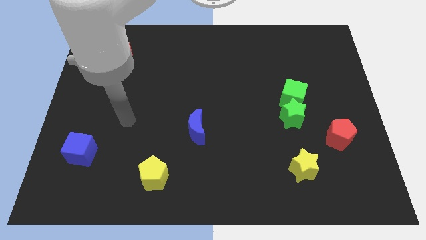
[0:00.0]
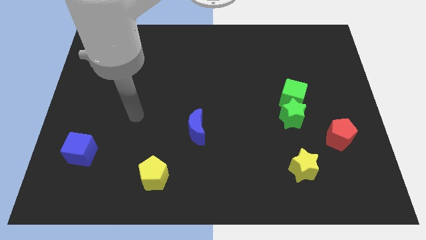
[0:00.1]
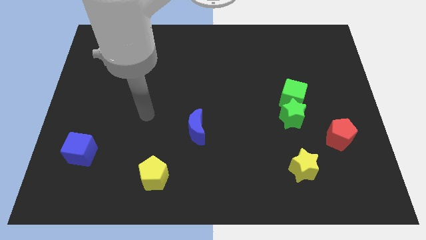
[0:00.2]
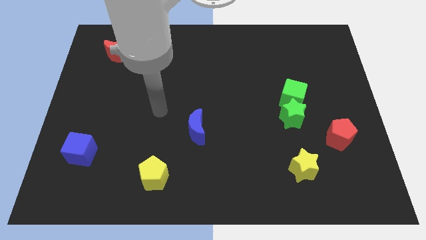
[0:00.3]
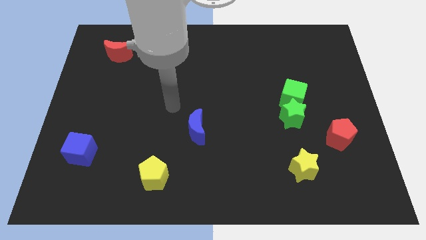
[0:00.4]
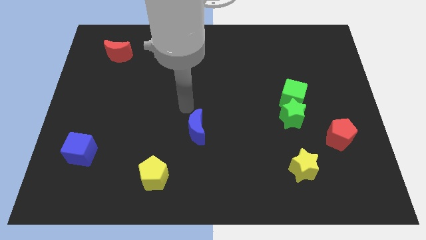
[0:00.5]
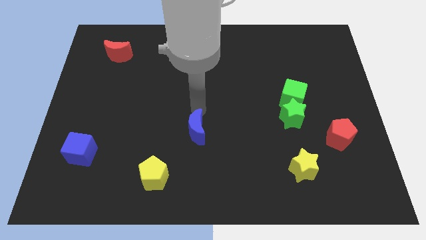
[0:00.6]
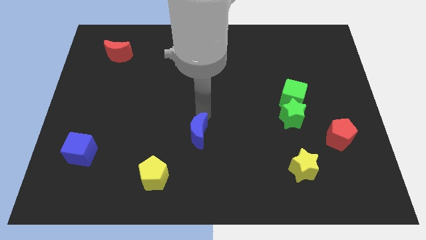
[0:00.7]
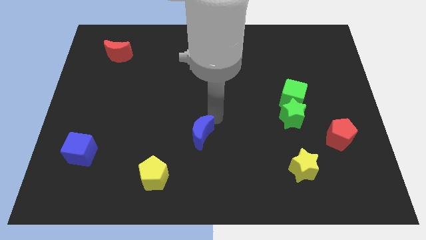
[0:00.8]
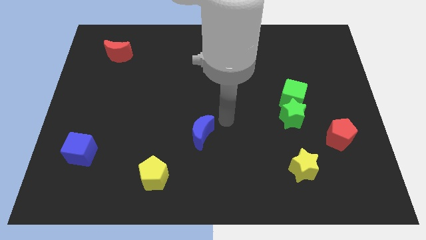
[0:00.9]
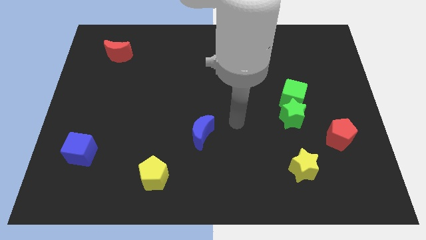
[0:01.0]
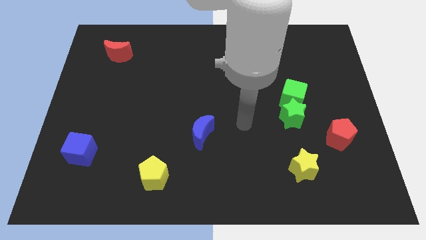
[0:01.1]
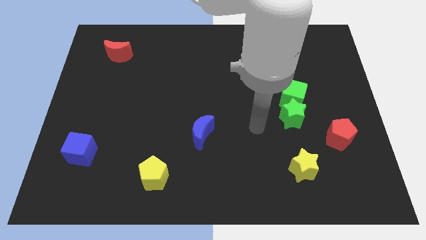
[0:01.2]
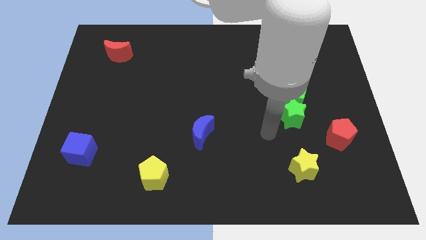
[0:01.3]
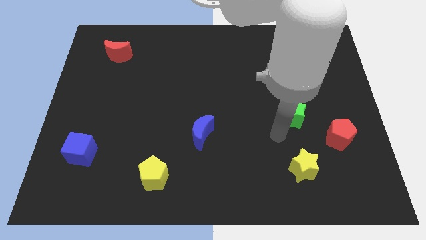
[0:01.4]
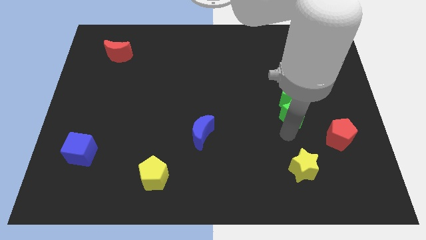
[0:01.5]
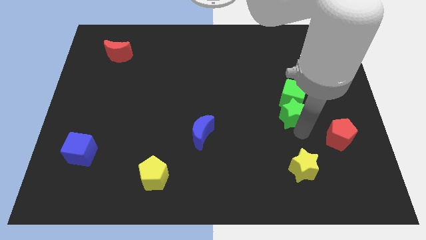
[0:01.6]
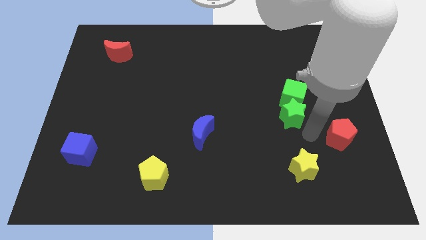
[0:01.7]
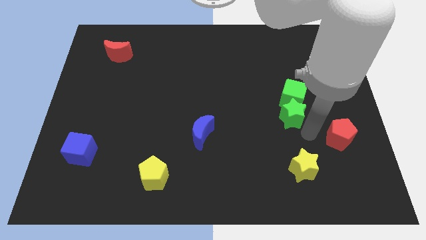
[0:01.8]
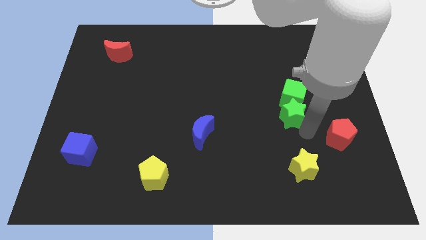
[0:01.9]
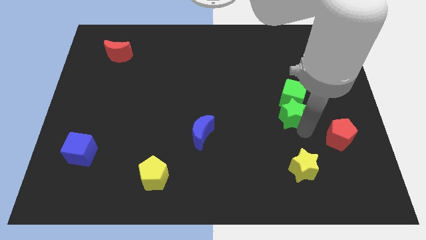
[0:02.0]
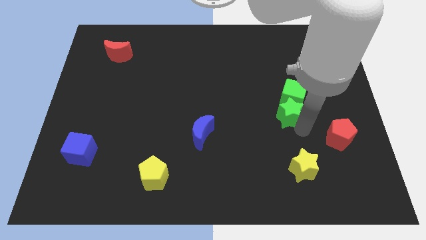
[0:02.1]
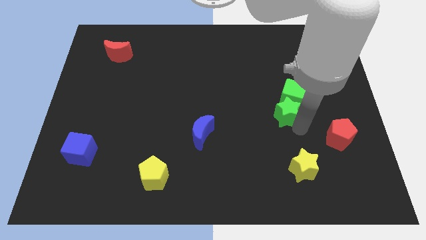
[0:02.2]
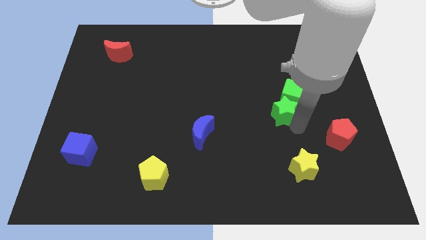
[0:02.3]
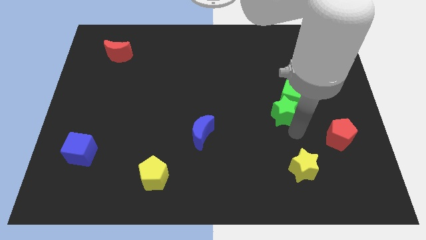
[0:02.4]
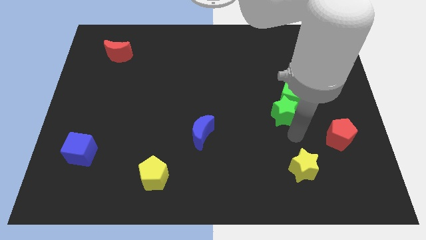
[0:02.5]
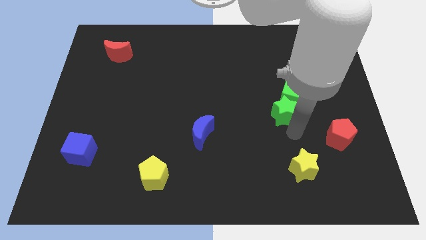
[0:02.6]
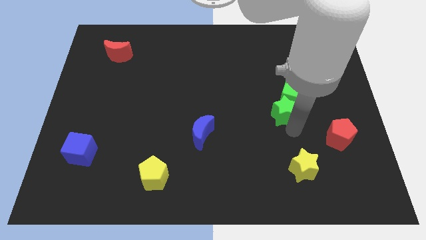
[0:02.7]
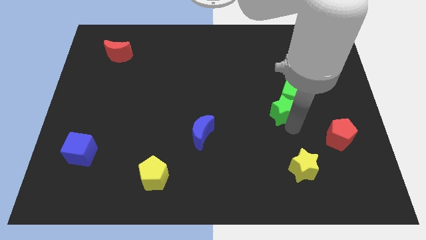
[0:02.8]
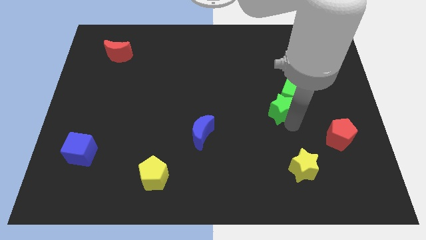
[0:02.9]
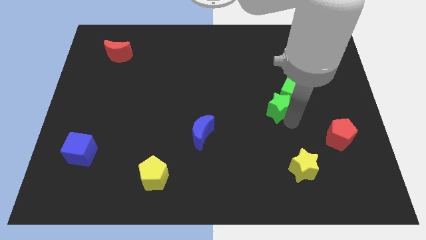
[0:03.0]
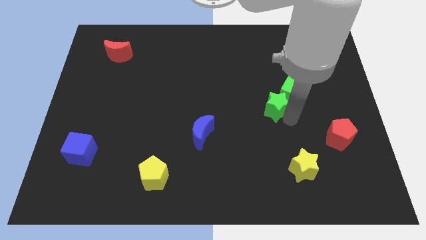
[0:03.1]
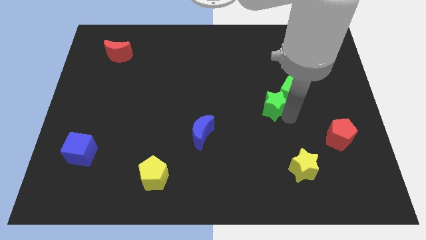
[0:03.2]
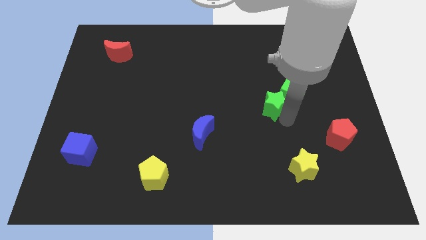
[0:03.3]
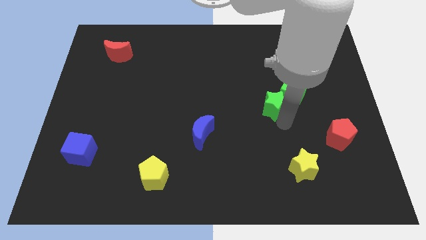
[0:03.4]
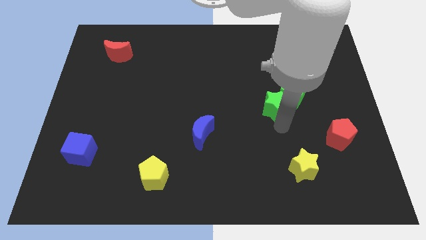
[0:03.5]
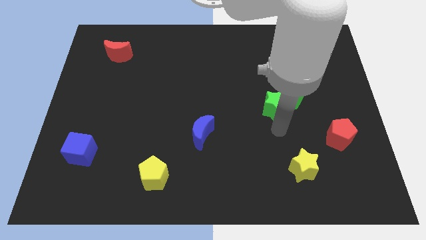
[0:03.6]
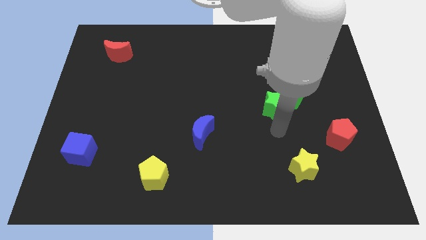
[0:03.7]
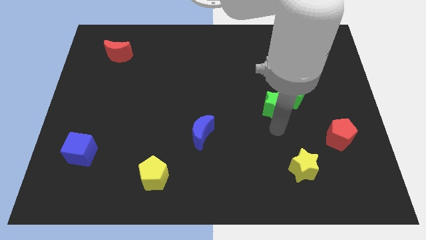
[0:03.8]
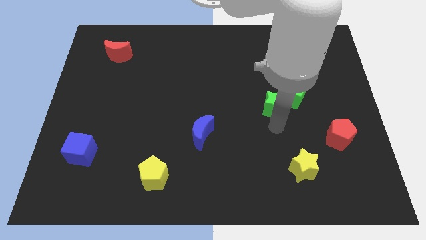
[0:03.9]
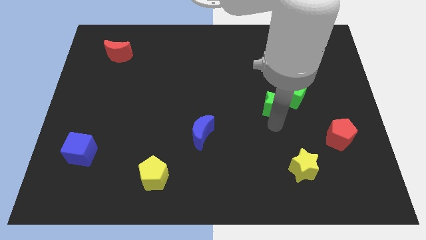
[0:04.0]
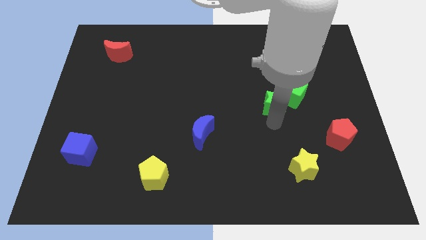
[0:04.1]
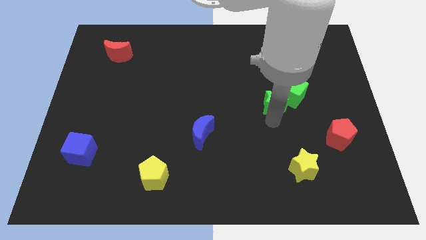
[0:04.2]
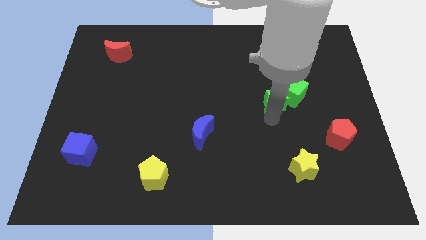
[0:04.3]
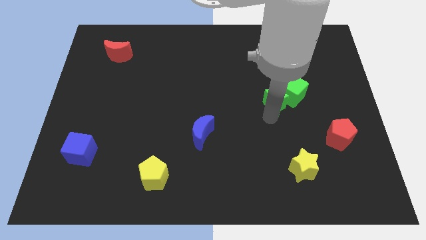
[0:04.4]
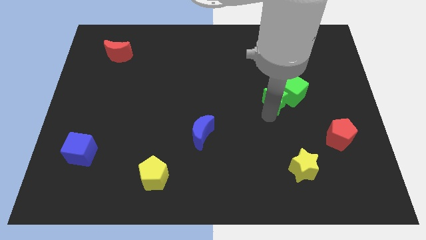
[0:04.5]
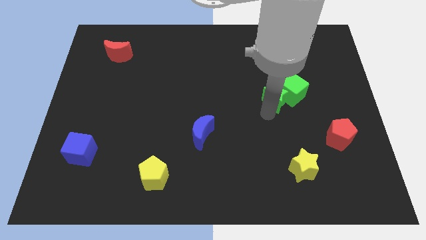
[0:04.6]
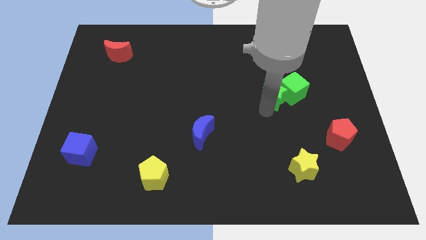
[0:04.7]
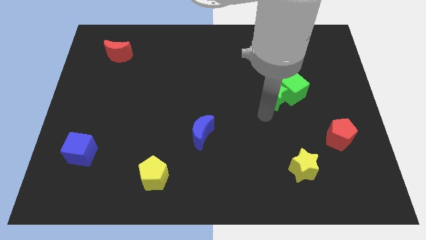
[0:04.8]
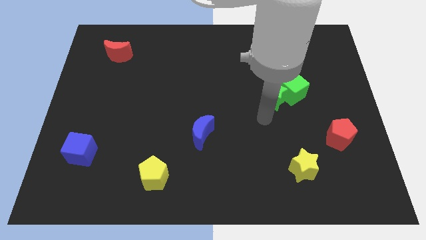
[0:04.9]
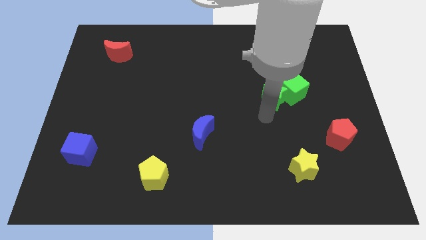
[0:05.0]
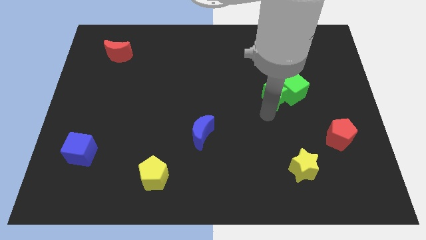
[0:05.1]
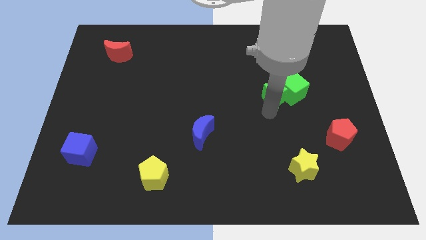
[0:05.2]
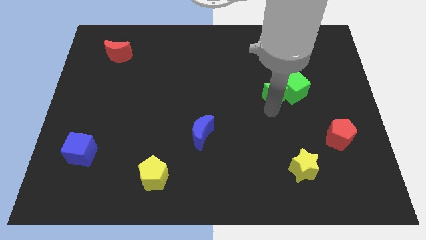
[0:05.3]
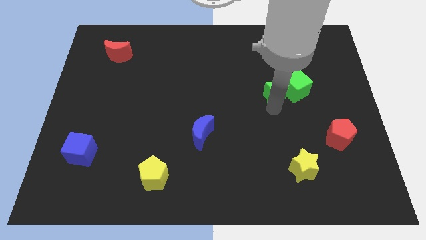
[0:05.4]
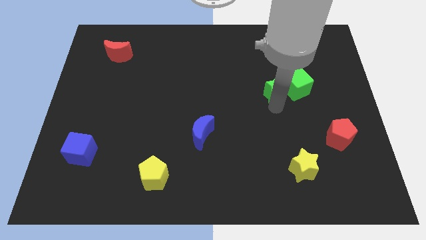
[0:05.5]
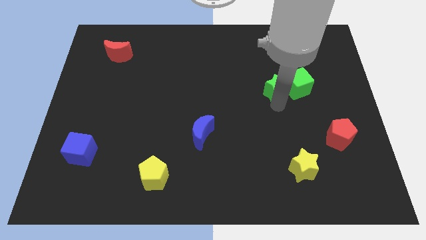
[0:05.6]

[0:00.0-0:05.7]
move the green star up a little bit

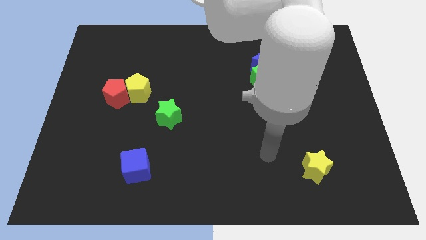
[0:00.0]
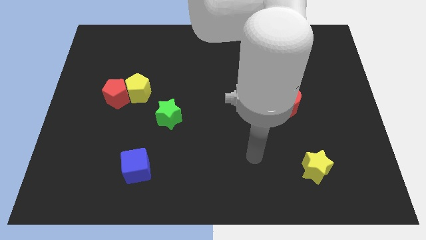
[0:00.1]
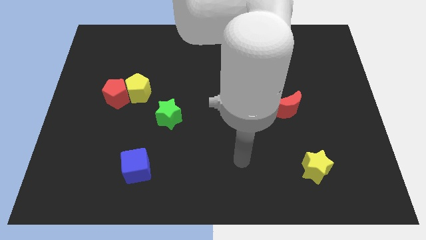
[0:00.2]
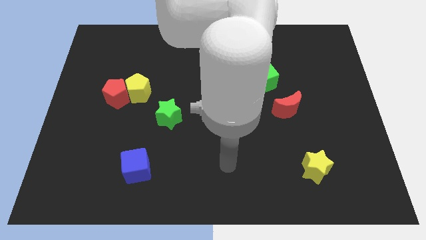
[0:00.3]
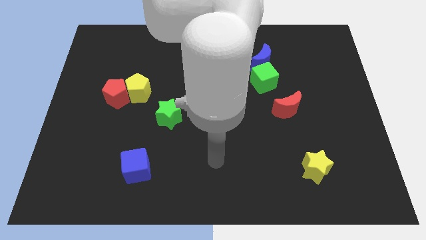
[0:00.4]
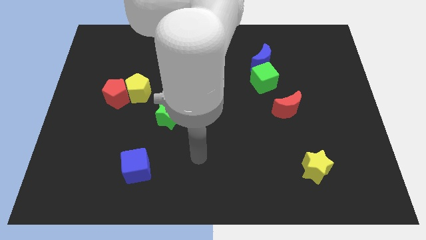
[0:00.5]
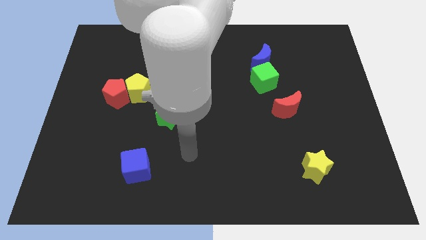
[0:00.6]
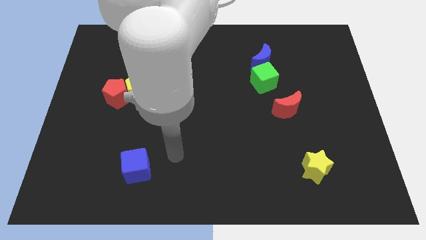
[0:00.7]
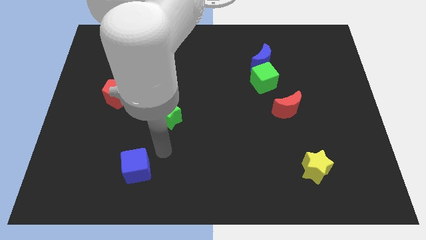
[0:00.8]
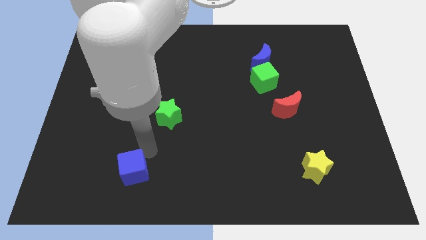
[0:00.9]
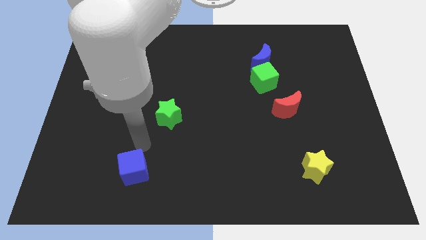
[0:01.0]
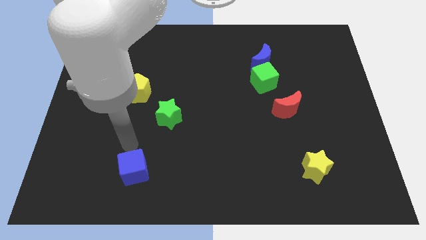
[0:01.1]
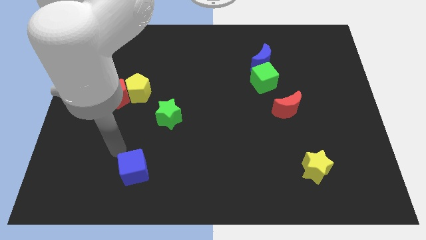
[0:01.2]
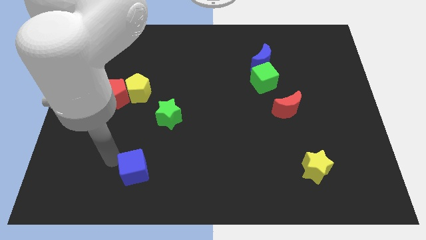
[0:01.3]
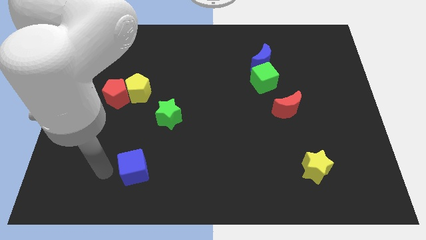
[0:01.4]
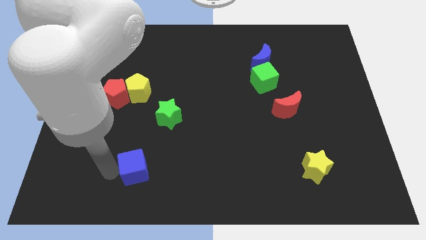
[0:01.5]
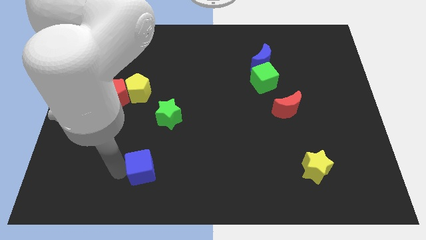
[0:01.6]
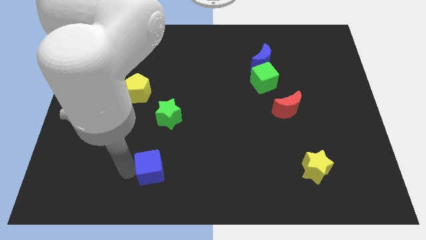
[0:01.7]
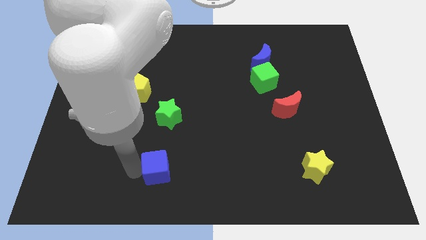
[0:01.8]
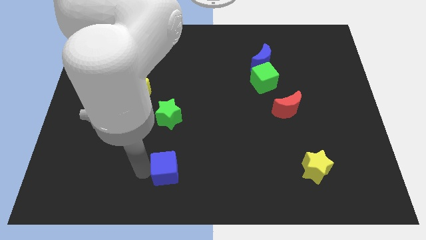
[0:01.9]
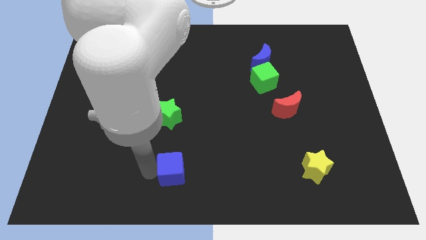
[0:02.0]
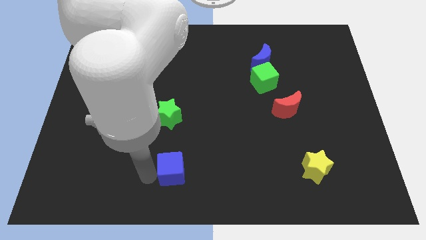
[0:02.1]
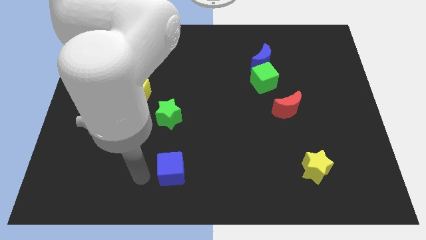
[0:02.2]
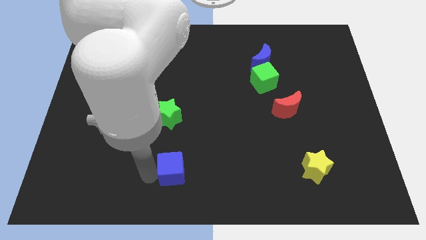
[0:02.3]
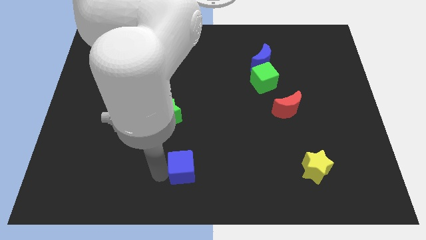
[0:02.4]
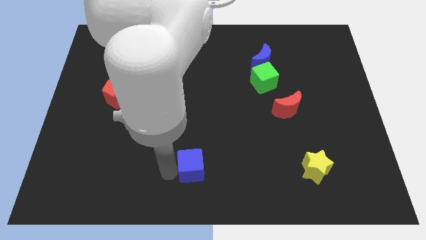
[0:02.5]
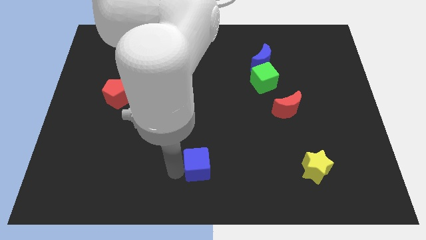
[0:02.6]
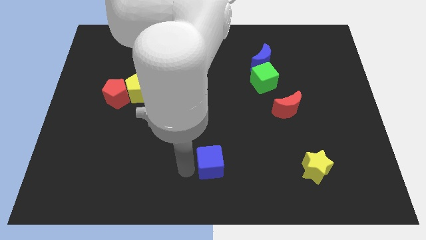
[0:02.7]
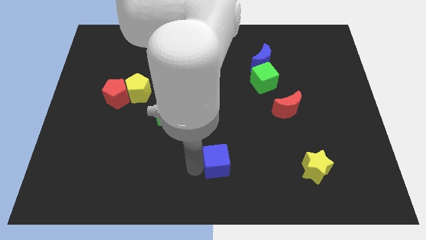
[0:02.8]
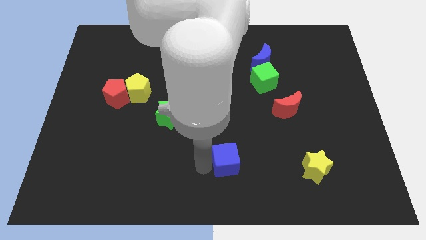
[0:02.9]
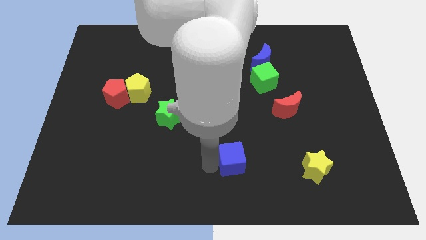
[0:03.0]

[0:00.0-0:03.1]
move the blue cube right
